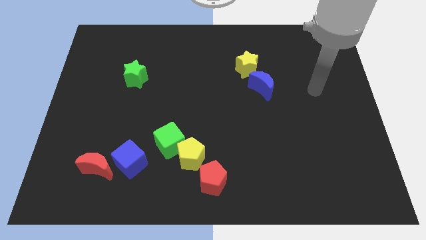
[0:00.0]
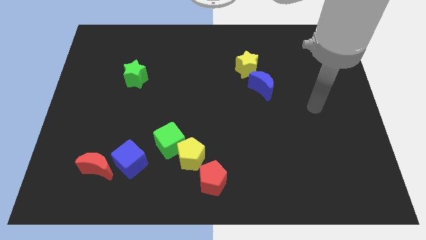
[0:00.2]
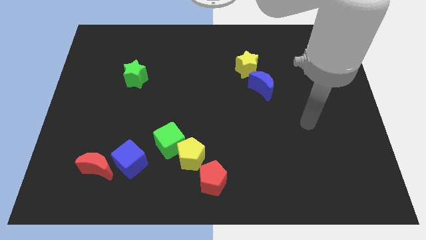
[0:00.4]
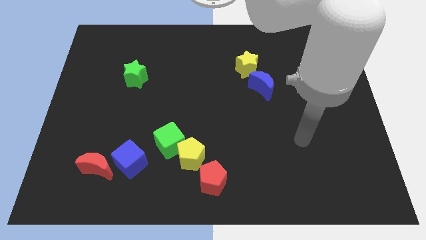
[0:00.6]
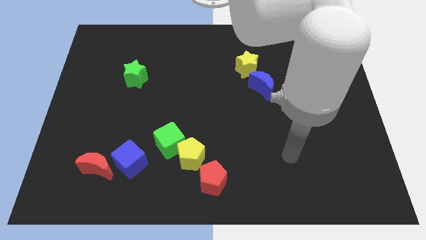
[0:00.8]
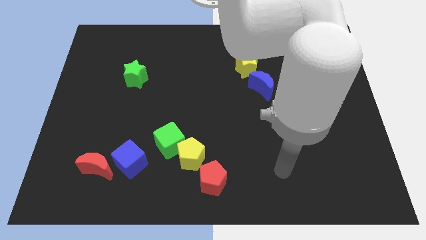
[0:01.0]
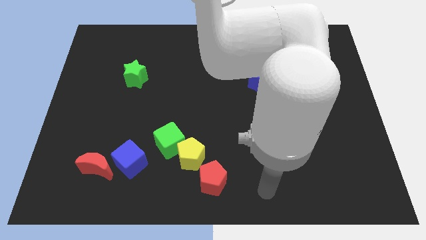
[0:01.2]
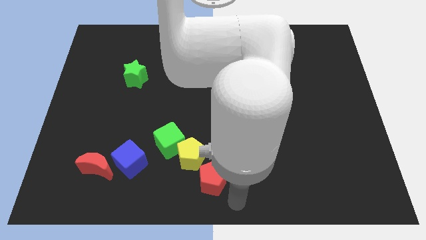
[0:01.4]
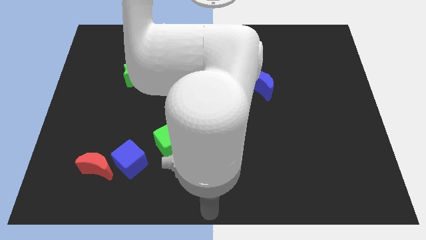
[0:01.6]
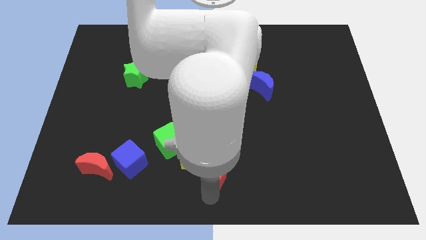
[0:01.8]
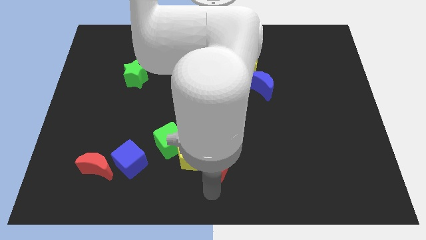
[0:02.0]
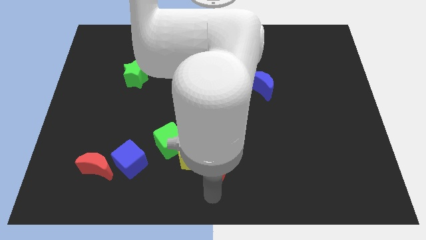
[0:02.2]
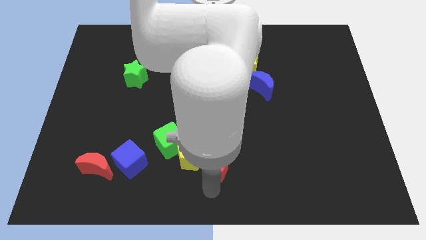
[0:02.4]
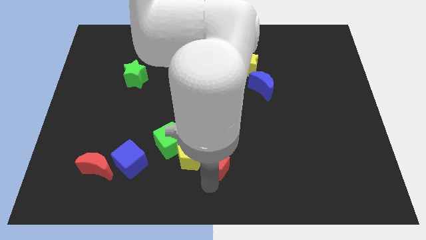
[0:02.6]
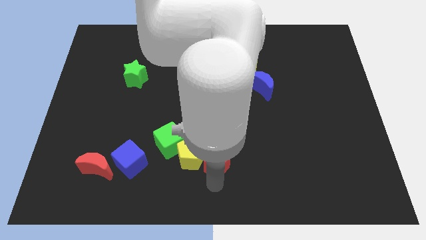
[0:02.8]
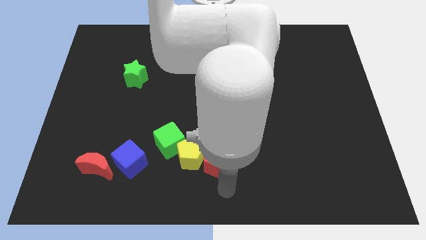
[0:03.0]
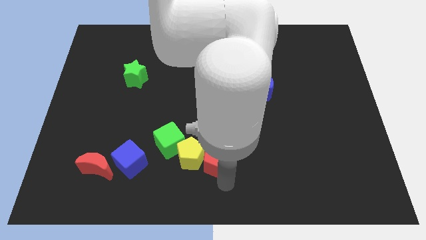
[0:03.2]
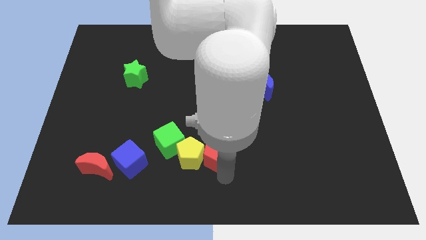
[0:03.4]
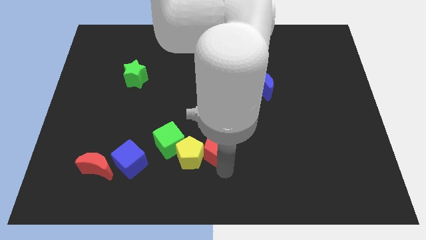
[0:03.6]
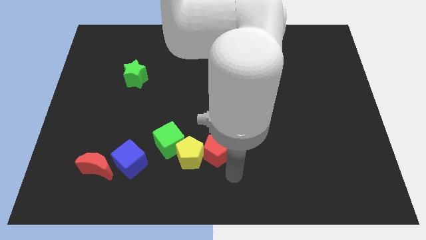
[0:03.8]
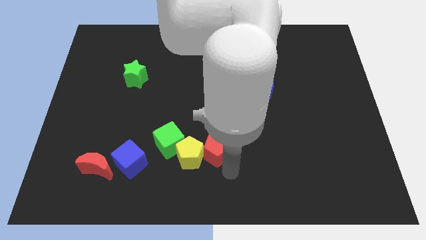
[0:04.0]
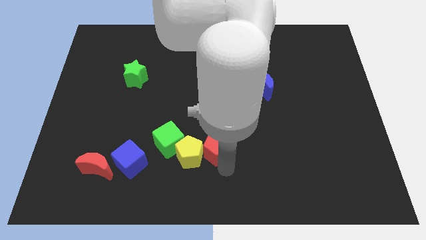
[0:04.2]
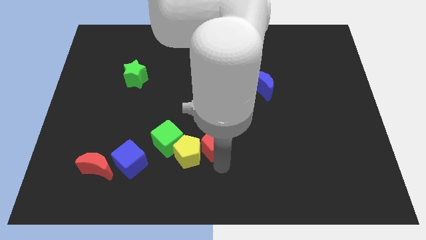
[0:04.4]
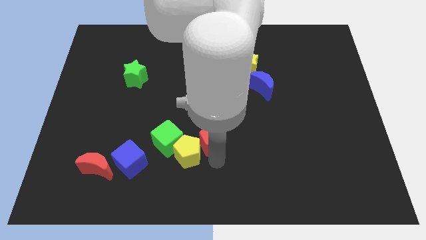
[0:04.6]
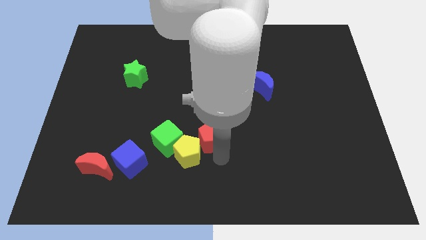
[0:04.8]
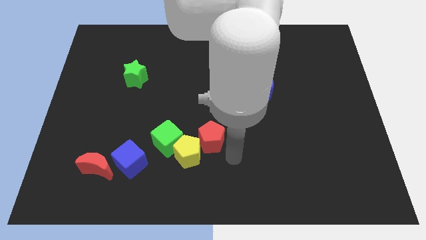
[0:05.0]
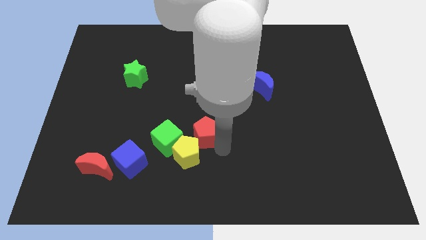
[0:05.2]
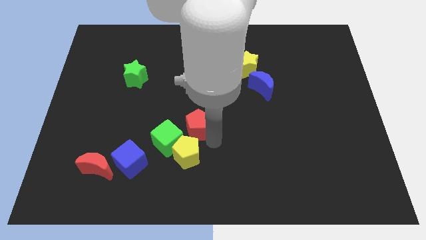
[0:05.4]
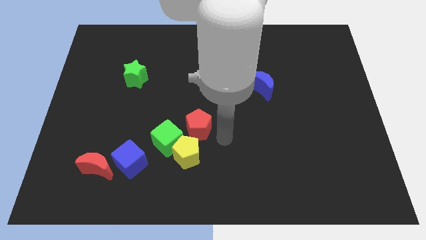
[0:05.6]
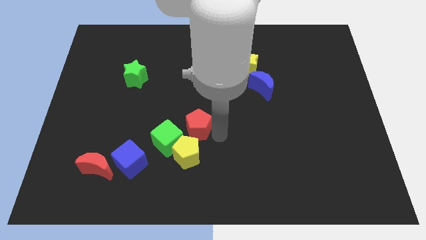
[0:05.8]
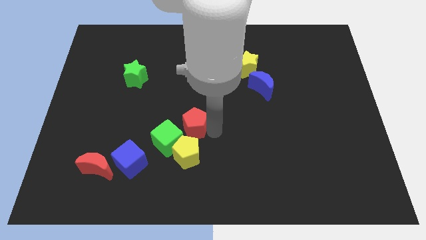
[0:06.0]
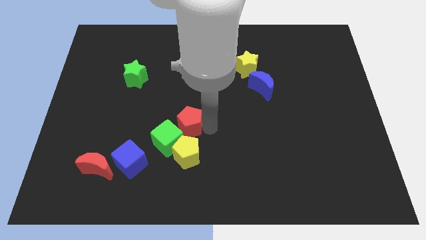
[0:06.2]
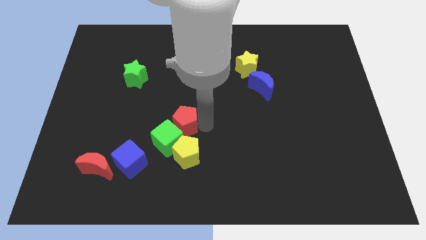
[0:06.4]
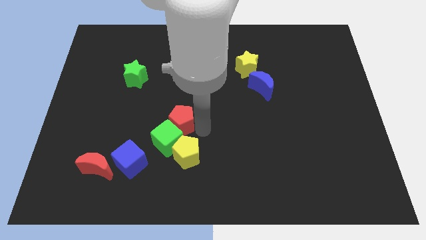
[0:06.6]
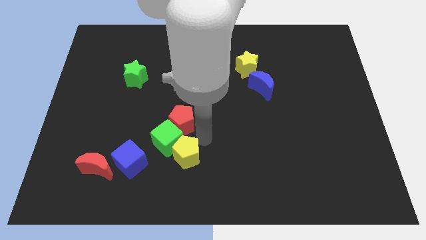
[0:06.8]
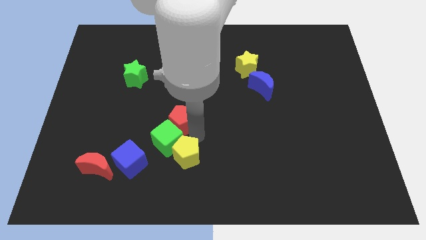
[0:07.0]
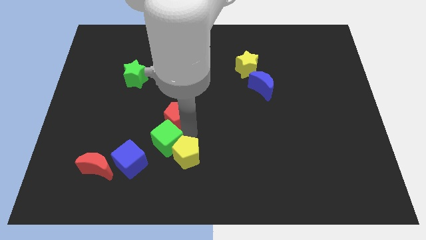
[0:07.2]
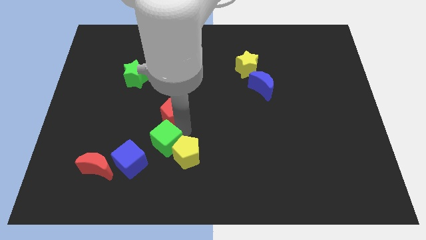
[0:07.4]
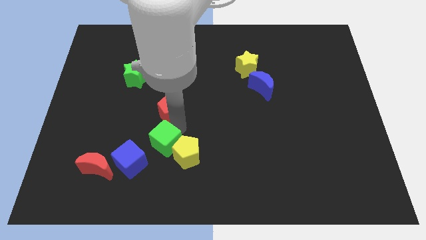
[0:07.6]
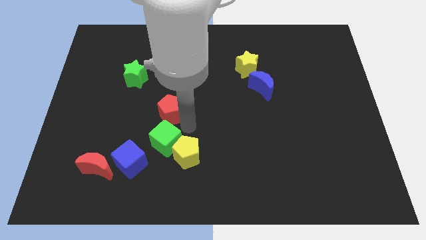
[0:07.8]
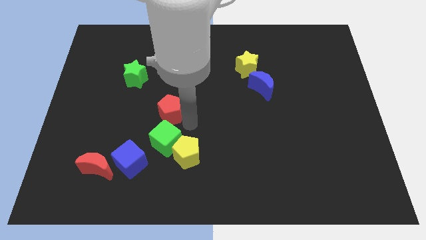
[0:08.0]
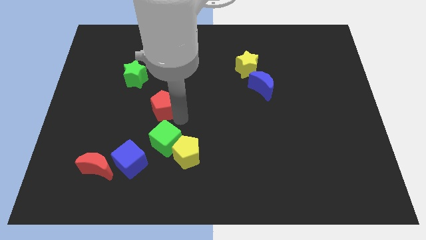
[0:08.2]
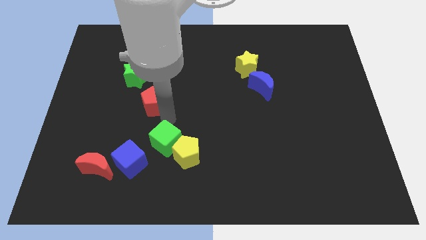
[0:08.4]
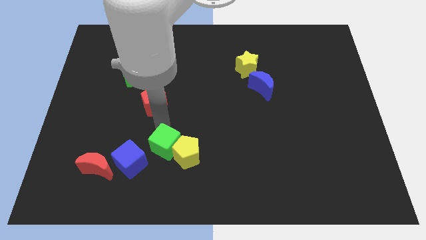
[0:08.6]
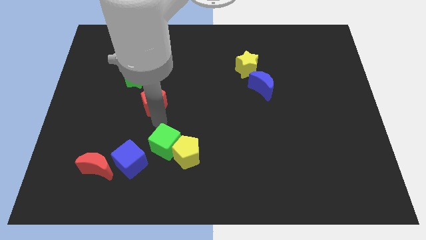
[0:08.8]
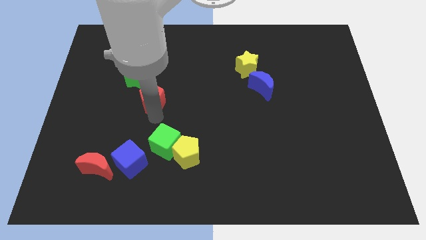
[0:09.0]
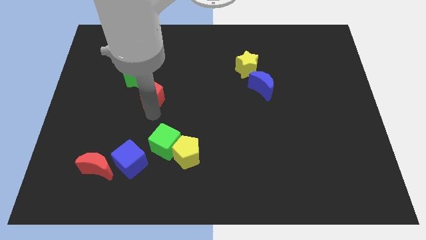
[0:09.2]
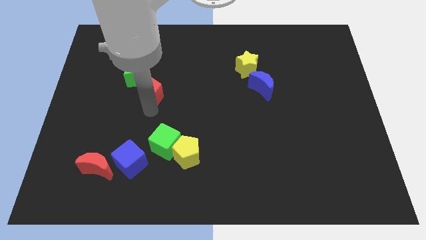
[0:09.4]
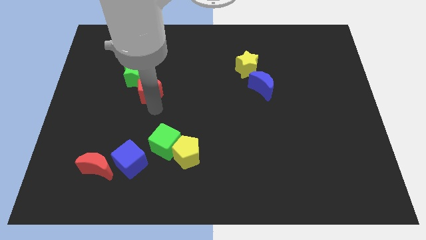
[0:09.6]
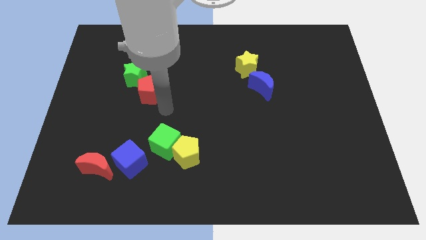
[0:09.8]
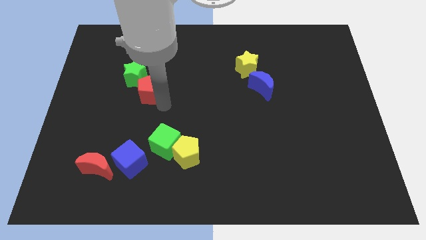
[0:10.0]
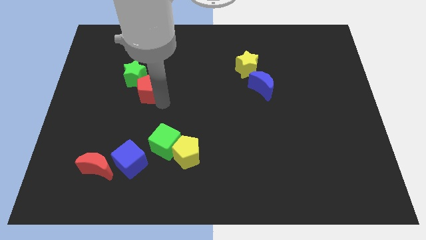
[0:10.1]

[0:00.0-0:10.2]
push the red pentagon to the green star

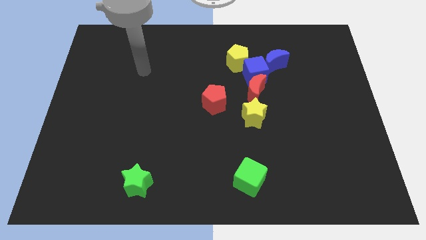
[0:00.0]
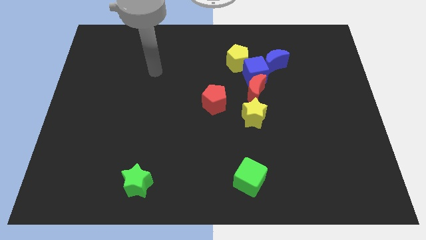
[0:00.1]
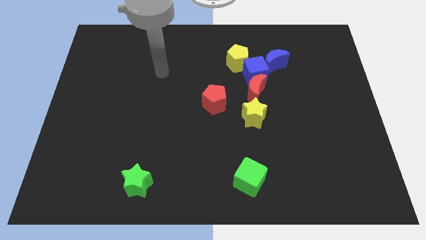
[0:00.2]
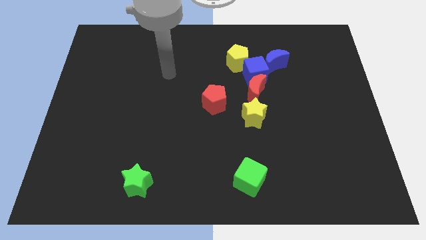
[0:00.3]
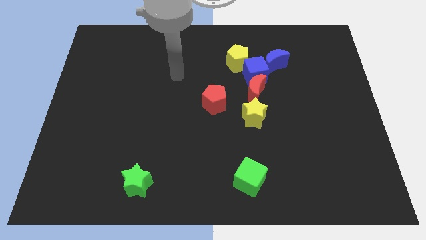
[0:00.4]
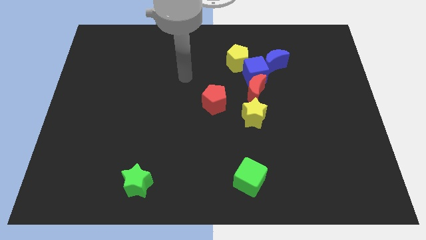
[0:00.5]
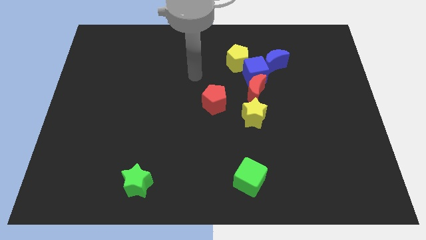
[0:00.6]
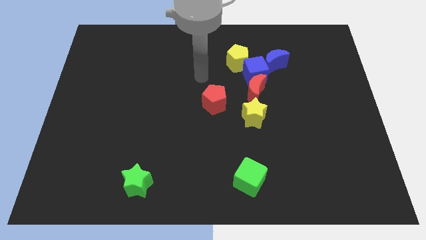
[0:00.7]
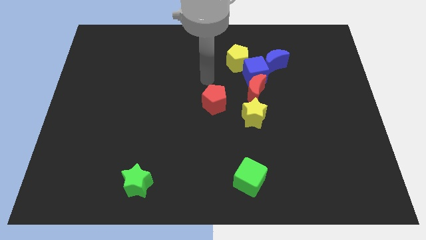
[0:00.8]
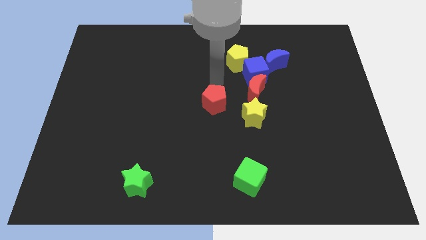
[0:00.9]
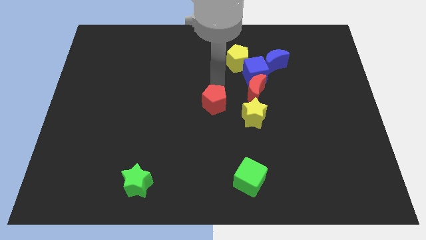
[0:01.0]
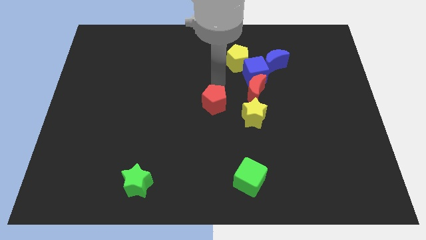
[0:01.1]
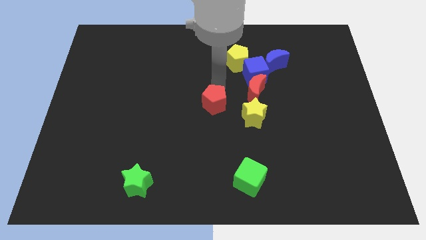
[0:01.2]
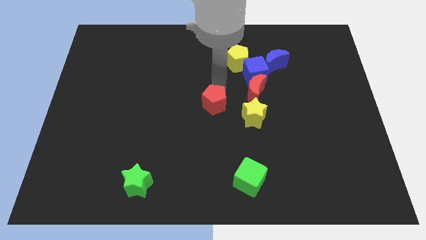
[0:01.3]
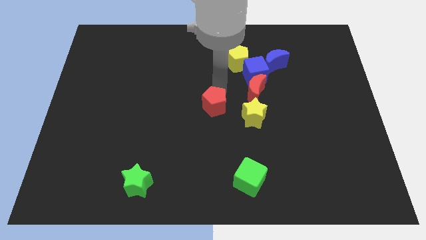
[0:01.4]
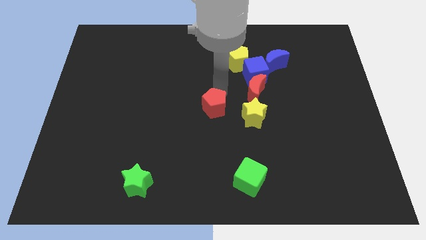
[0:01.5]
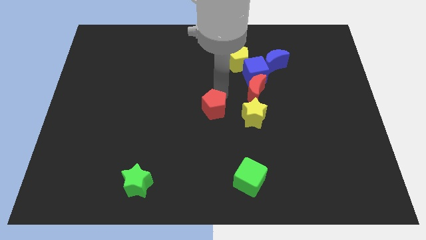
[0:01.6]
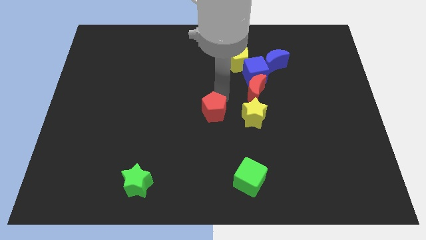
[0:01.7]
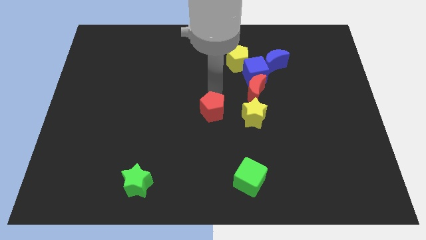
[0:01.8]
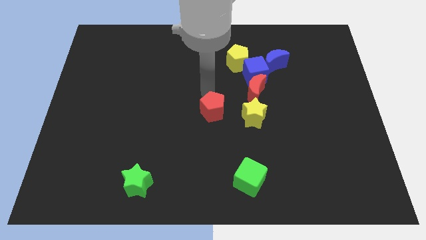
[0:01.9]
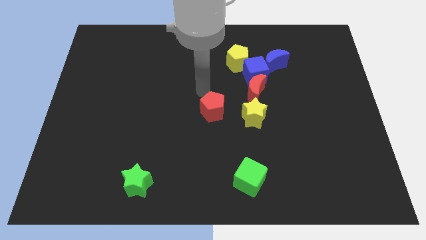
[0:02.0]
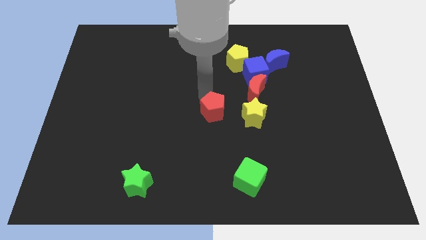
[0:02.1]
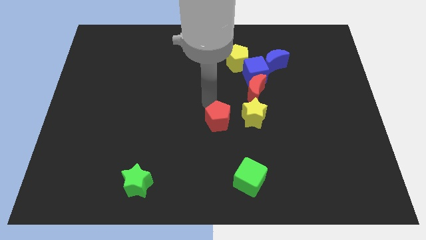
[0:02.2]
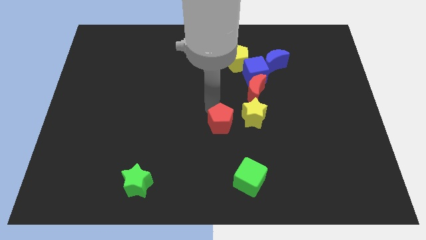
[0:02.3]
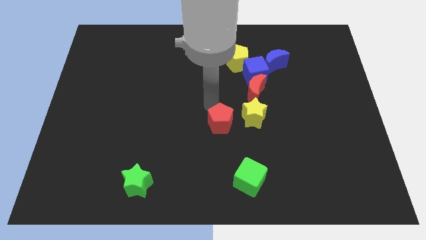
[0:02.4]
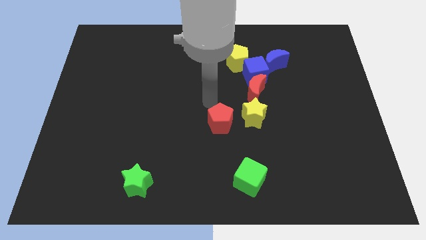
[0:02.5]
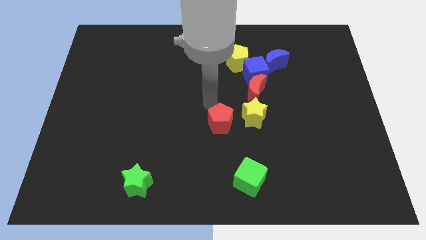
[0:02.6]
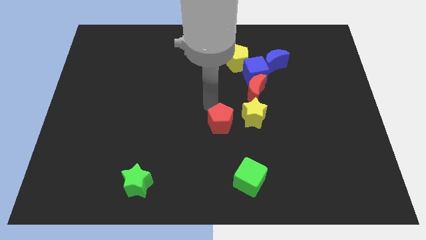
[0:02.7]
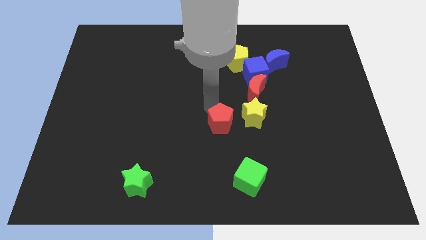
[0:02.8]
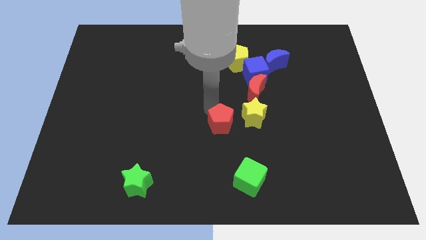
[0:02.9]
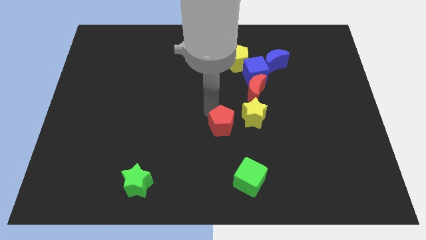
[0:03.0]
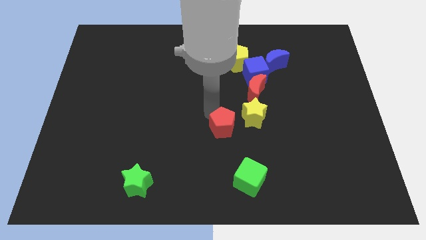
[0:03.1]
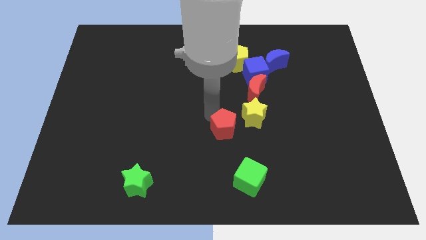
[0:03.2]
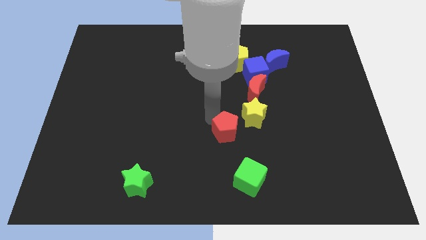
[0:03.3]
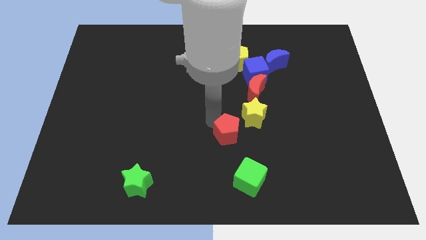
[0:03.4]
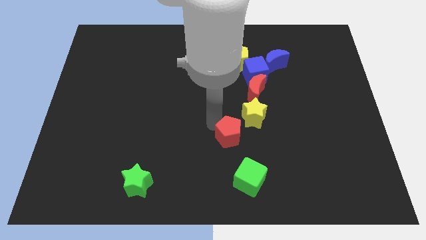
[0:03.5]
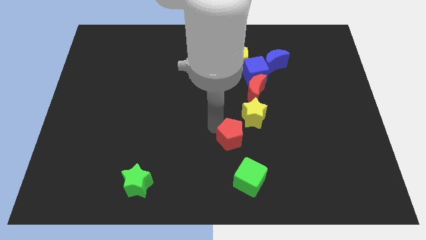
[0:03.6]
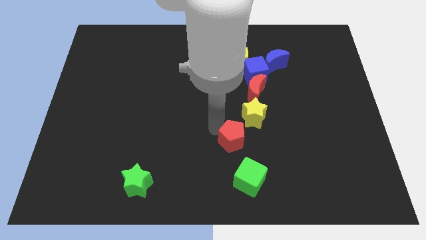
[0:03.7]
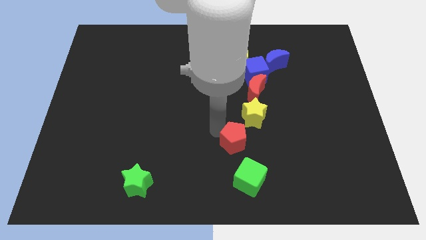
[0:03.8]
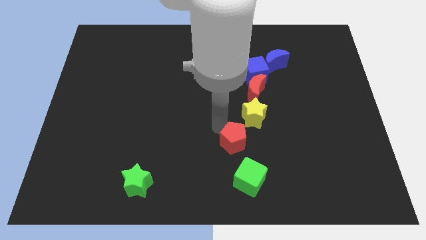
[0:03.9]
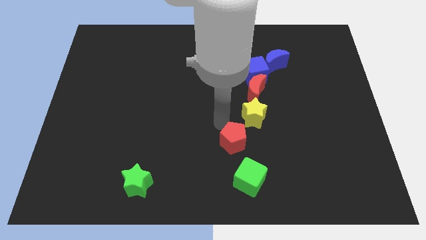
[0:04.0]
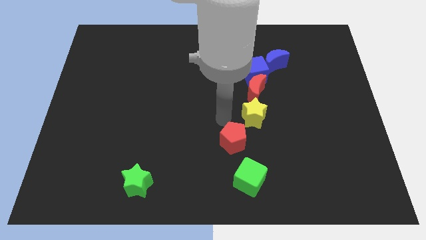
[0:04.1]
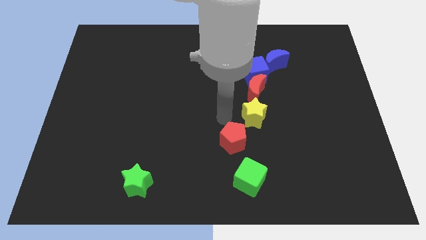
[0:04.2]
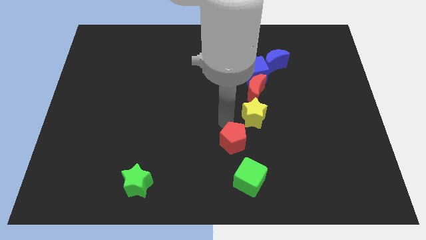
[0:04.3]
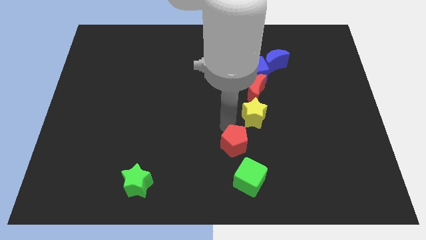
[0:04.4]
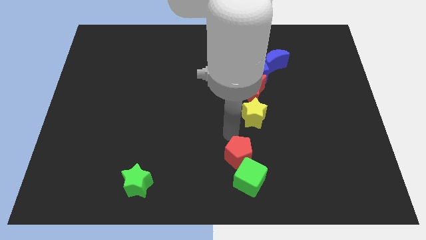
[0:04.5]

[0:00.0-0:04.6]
push the red pentagon towards the green cube
